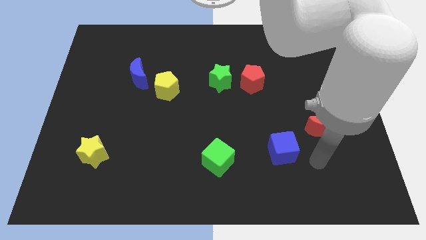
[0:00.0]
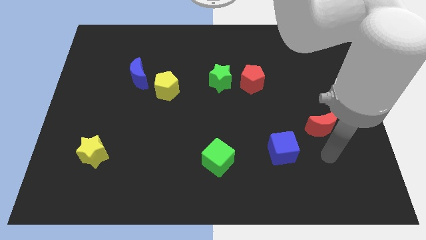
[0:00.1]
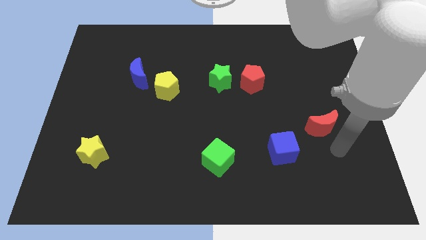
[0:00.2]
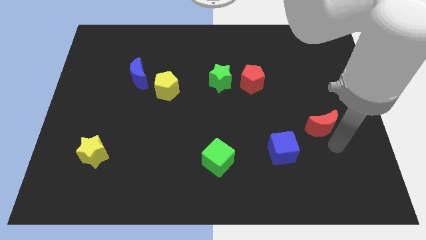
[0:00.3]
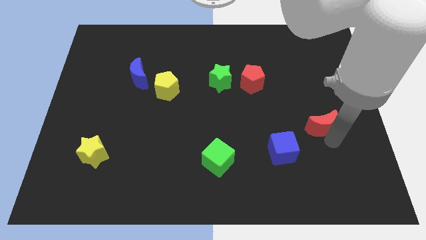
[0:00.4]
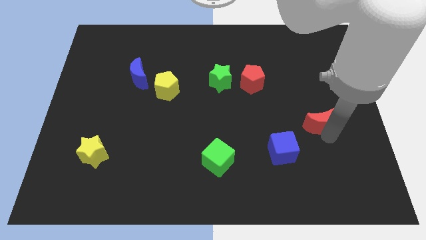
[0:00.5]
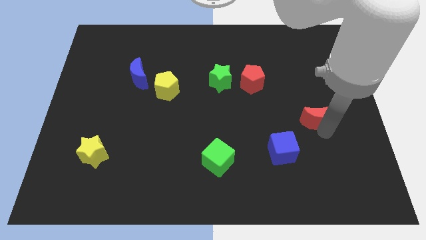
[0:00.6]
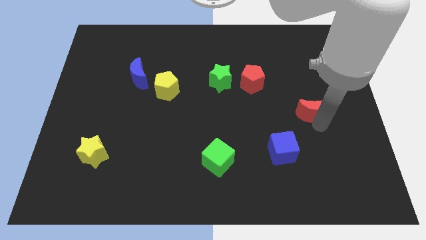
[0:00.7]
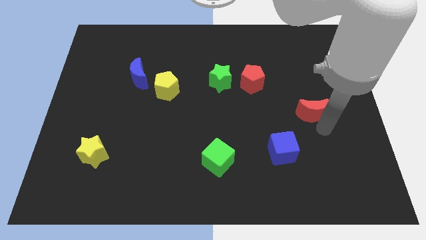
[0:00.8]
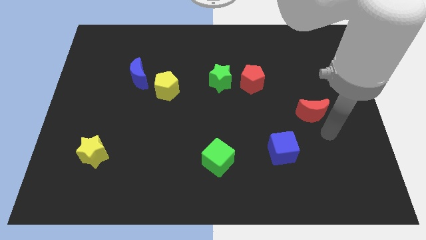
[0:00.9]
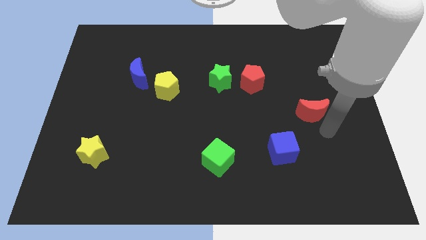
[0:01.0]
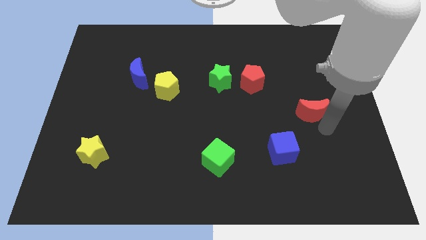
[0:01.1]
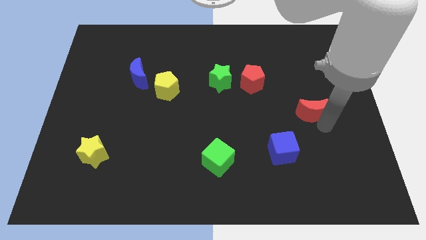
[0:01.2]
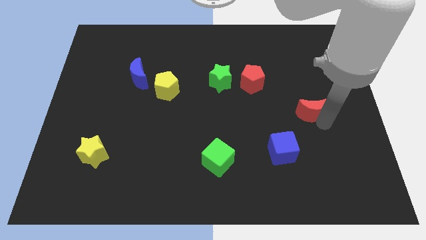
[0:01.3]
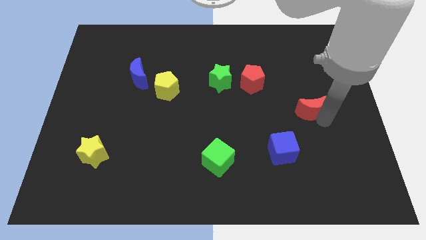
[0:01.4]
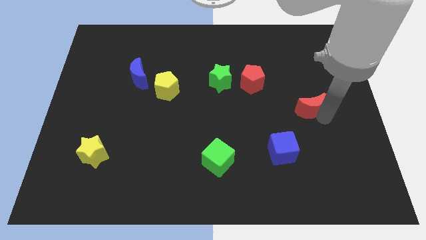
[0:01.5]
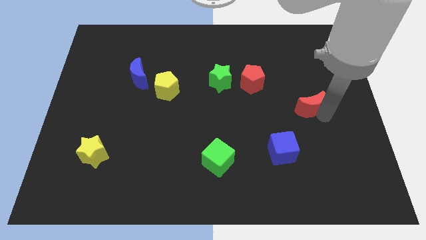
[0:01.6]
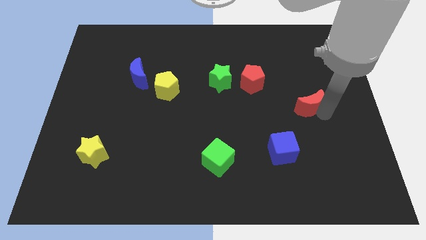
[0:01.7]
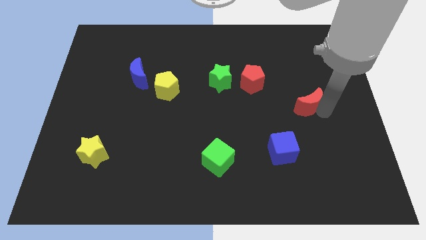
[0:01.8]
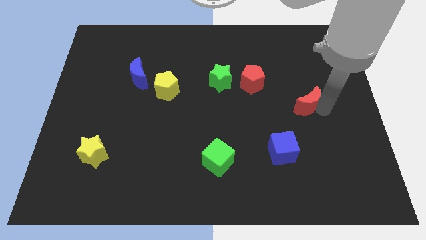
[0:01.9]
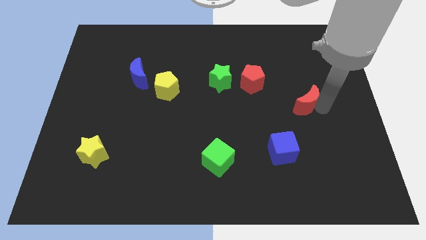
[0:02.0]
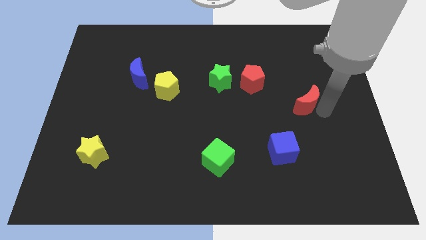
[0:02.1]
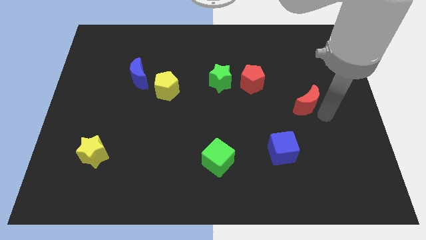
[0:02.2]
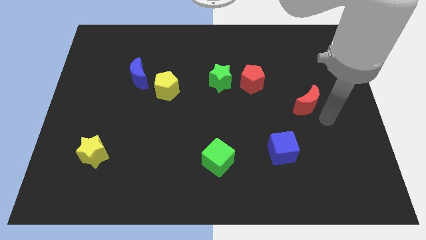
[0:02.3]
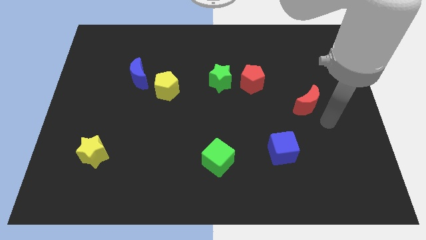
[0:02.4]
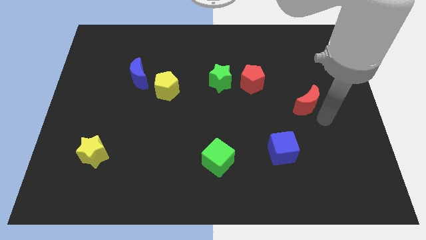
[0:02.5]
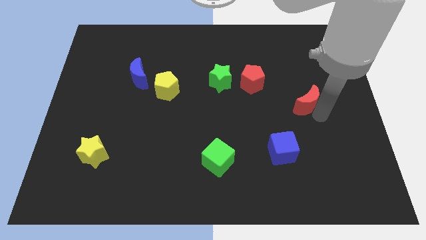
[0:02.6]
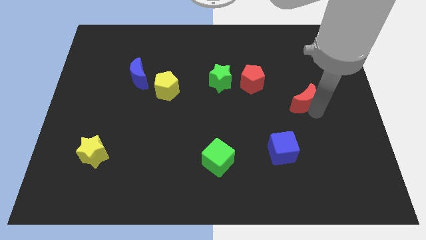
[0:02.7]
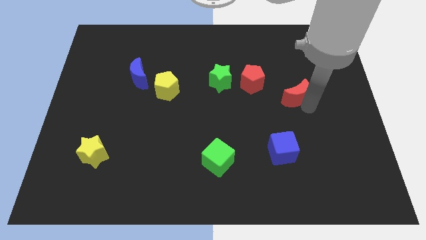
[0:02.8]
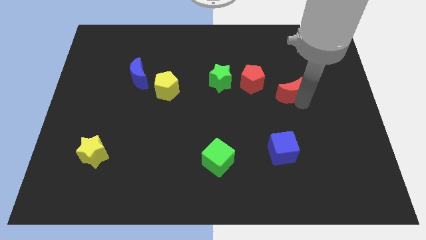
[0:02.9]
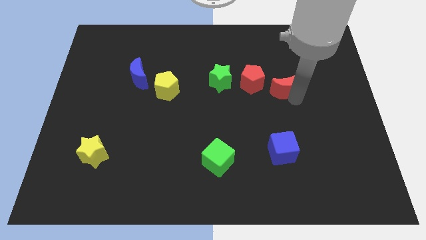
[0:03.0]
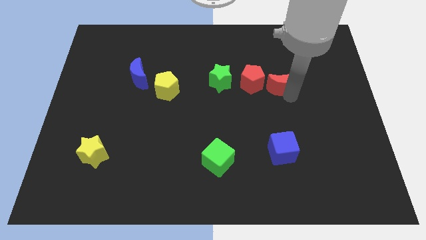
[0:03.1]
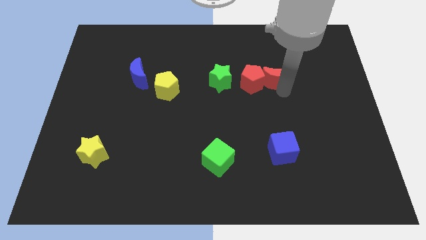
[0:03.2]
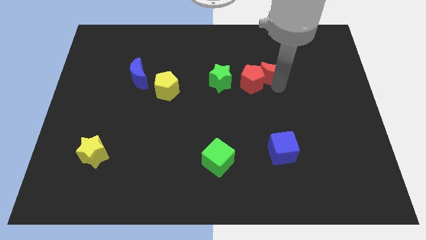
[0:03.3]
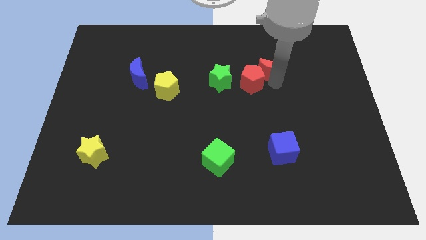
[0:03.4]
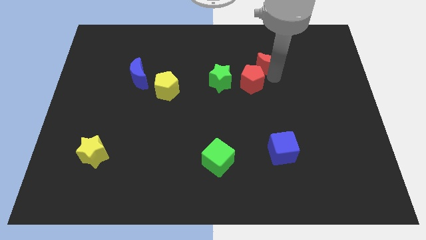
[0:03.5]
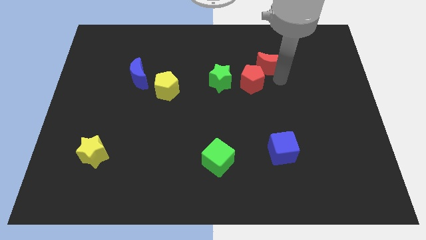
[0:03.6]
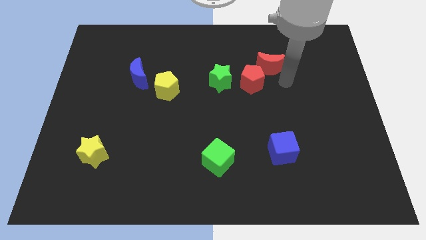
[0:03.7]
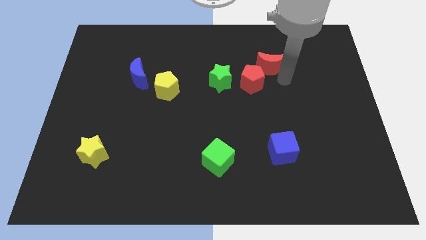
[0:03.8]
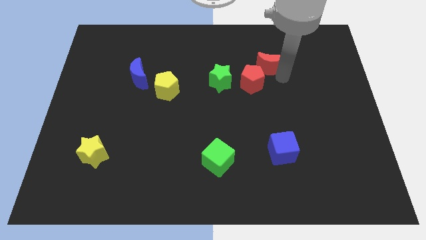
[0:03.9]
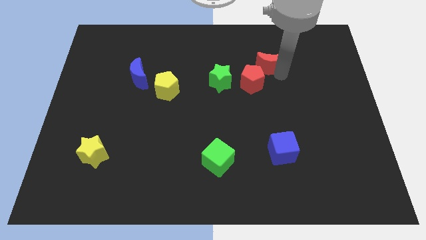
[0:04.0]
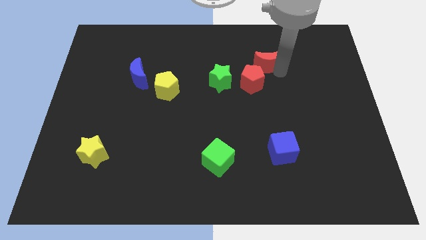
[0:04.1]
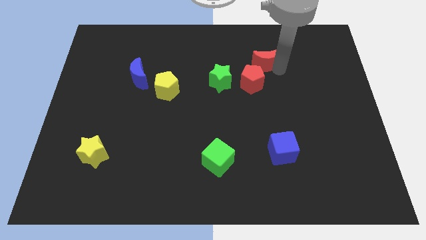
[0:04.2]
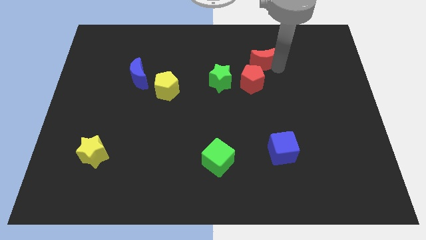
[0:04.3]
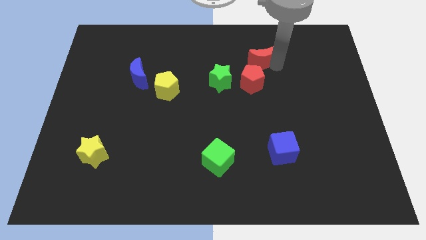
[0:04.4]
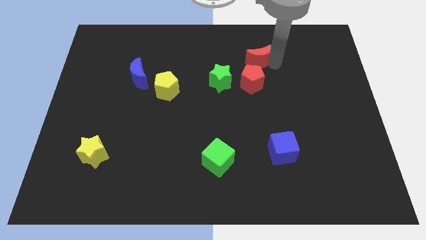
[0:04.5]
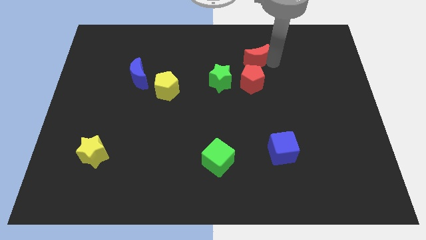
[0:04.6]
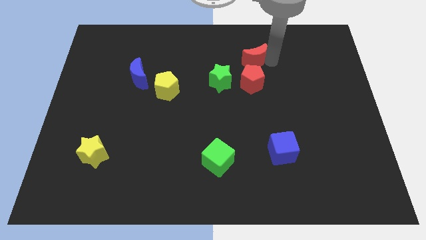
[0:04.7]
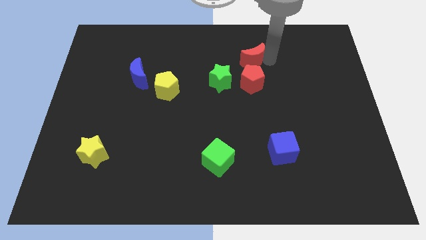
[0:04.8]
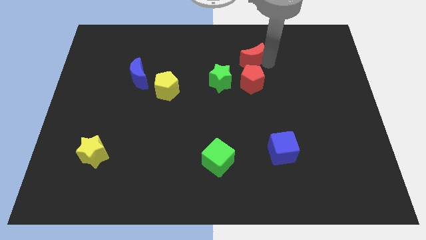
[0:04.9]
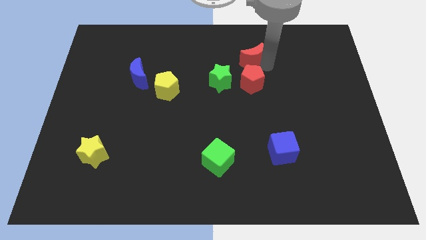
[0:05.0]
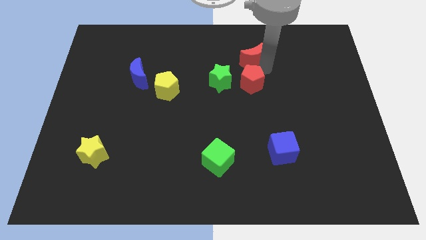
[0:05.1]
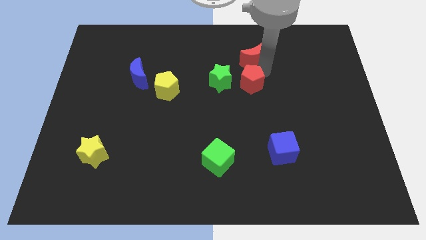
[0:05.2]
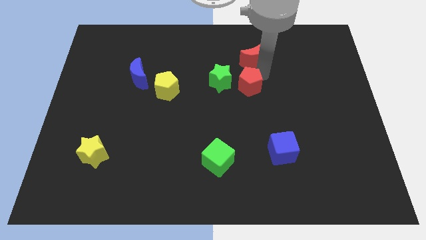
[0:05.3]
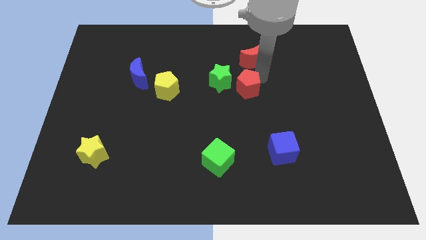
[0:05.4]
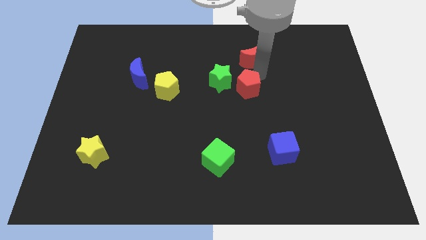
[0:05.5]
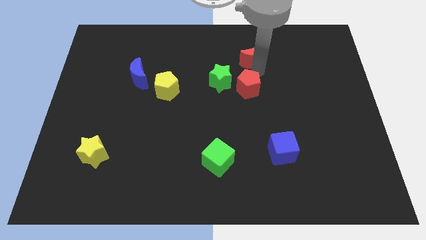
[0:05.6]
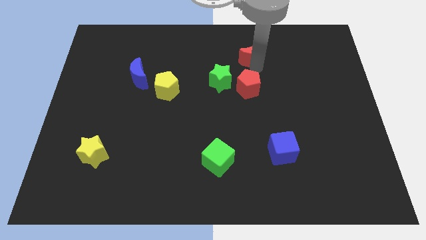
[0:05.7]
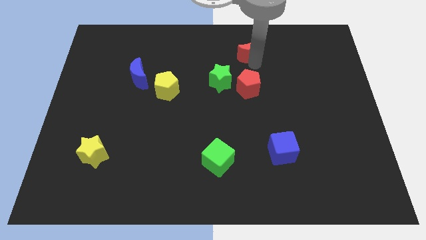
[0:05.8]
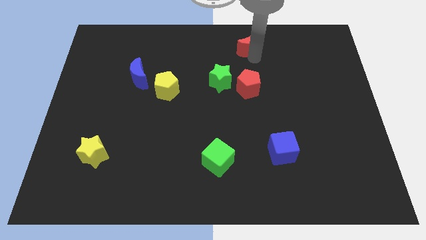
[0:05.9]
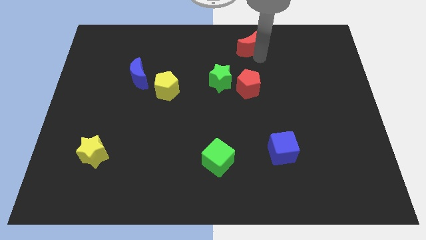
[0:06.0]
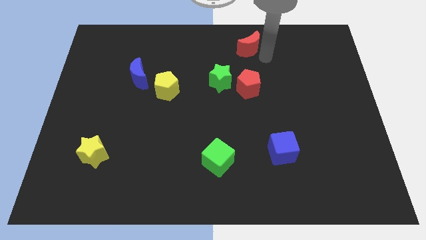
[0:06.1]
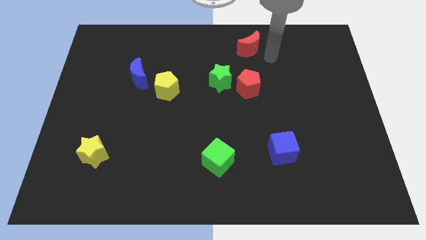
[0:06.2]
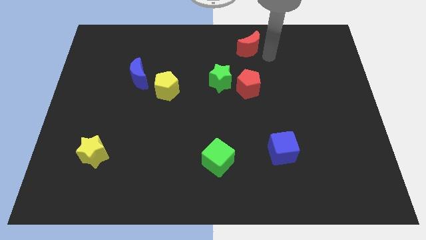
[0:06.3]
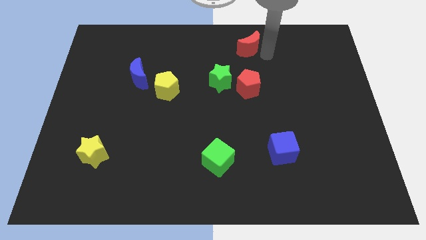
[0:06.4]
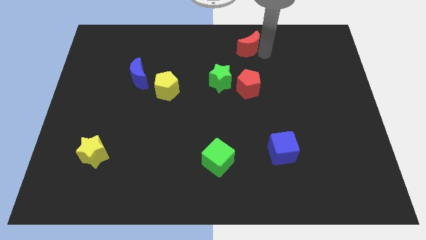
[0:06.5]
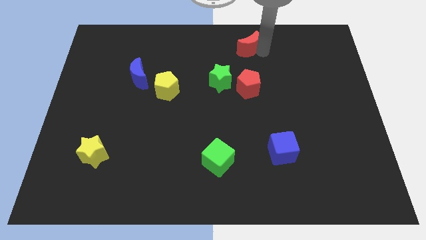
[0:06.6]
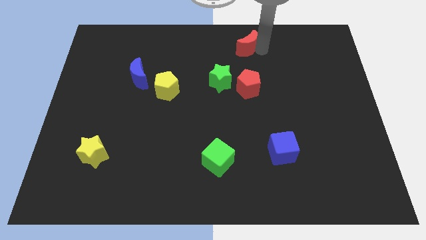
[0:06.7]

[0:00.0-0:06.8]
put the red moon to the towards your base

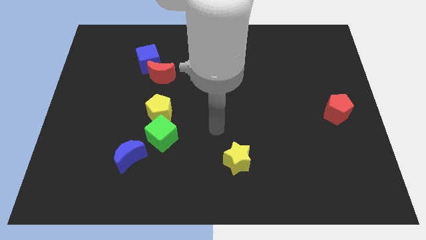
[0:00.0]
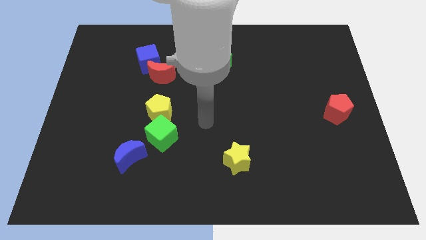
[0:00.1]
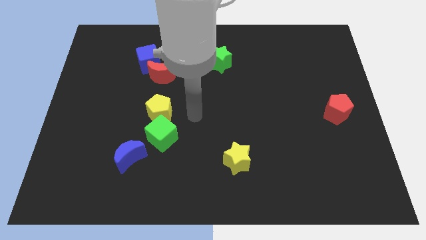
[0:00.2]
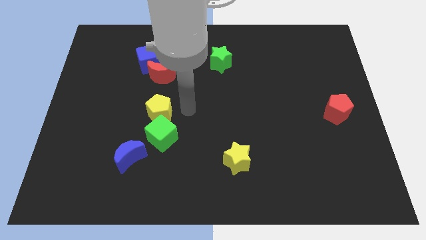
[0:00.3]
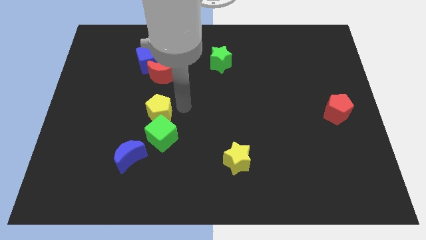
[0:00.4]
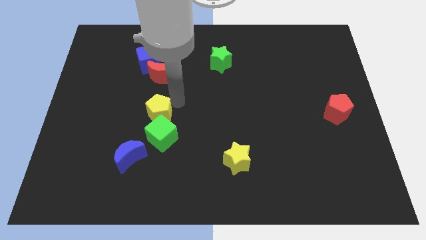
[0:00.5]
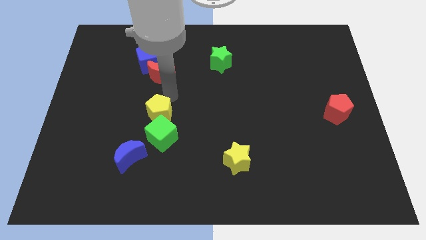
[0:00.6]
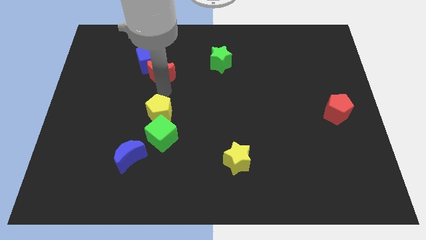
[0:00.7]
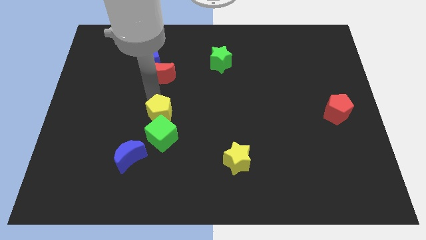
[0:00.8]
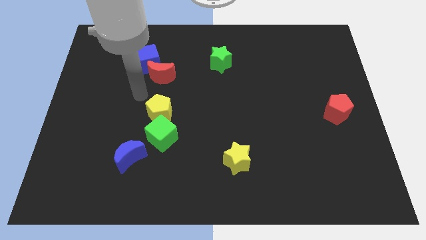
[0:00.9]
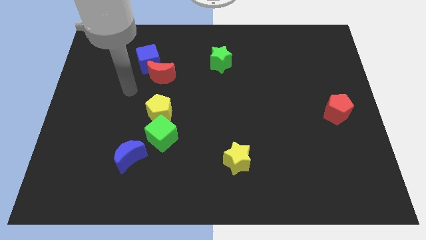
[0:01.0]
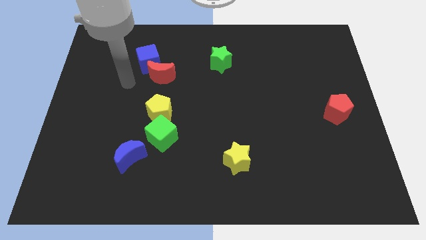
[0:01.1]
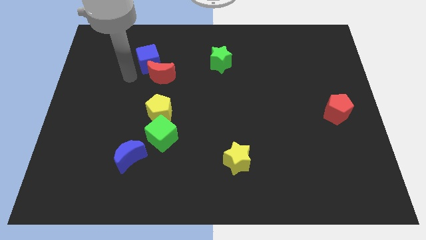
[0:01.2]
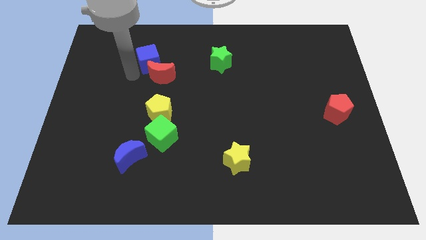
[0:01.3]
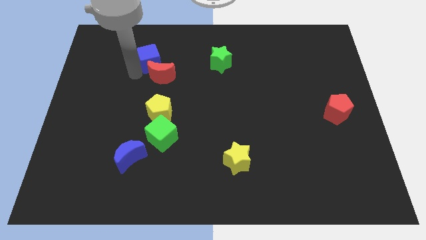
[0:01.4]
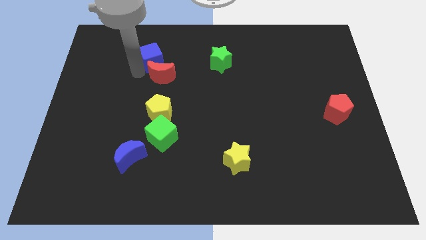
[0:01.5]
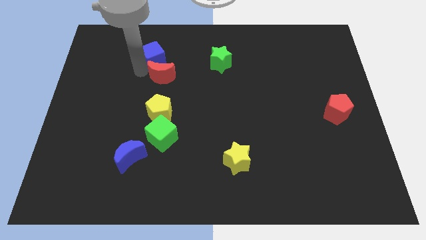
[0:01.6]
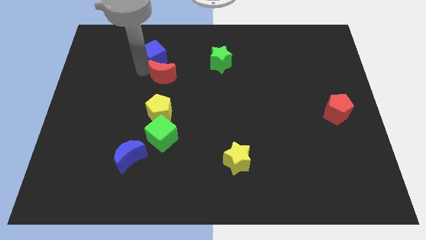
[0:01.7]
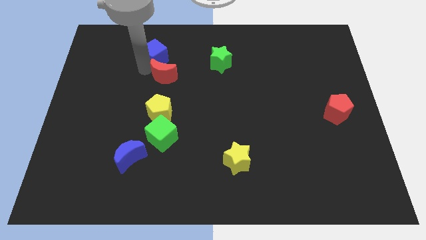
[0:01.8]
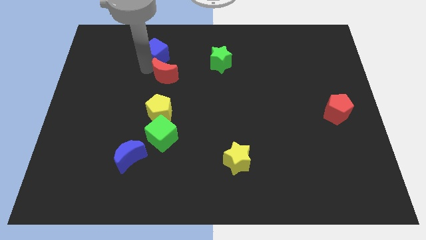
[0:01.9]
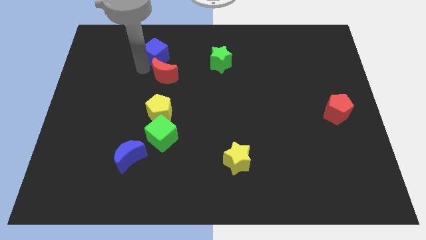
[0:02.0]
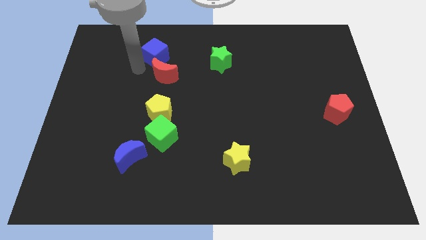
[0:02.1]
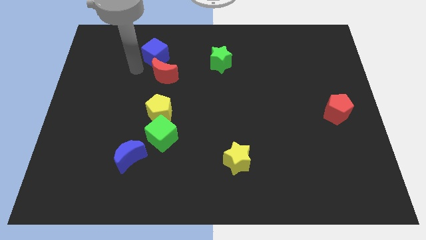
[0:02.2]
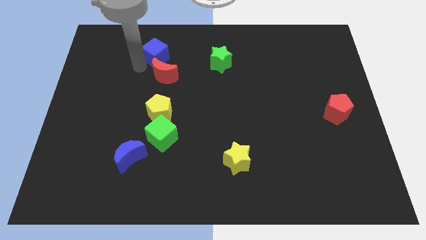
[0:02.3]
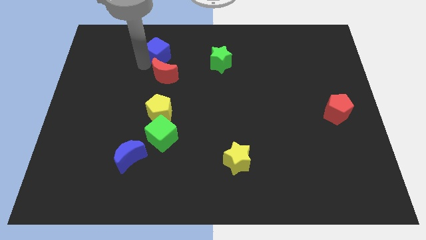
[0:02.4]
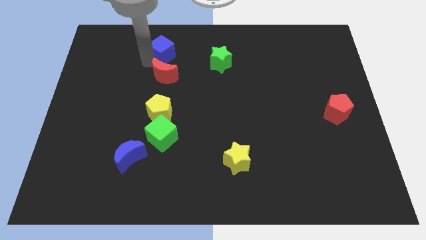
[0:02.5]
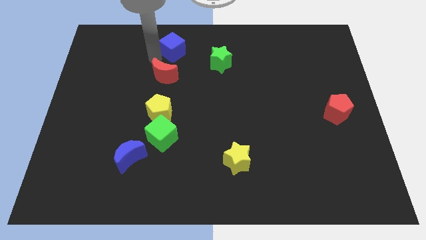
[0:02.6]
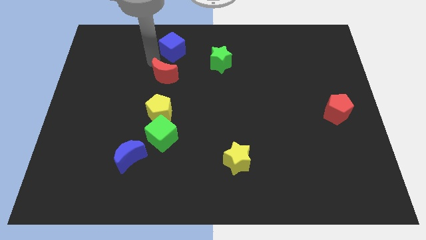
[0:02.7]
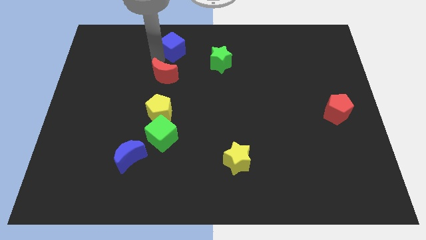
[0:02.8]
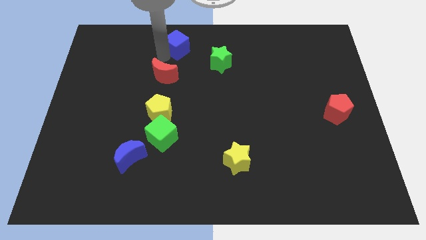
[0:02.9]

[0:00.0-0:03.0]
push the blue cube to the top side
